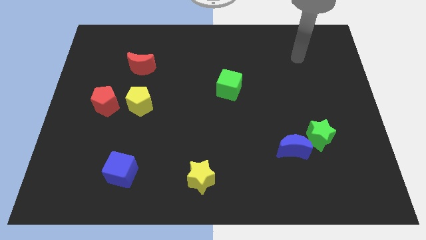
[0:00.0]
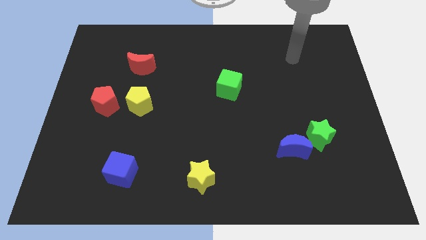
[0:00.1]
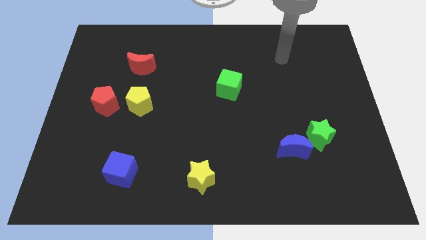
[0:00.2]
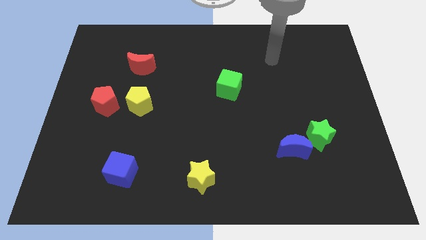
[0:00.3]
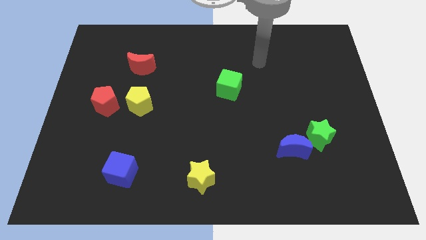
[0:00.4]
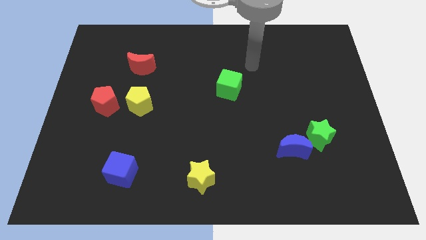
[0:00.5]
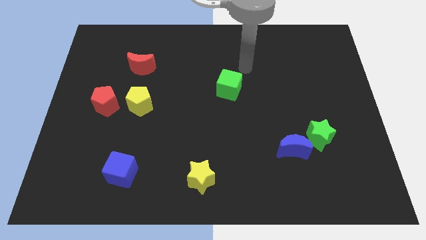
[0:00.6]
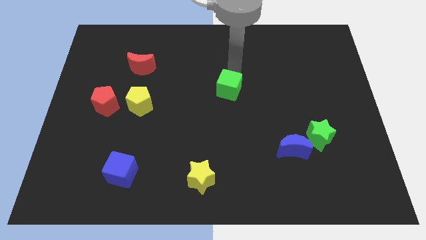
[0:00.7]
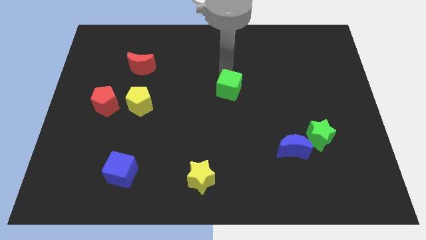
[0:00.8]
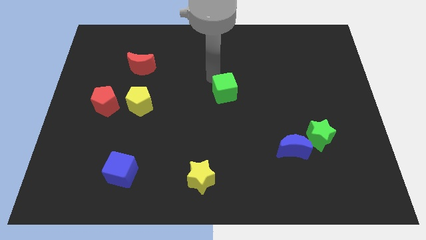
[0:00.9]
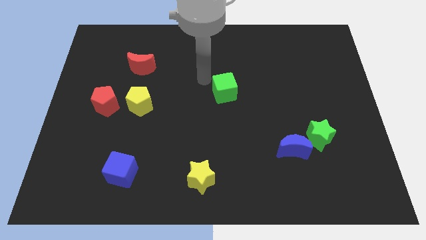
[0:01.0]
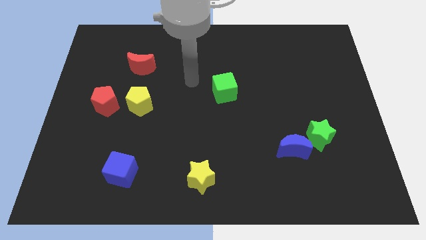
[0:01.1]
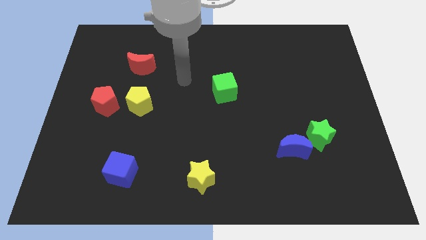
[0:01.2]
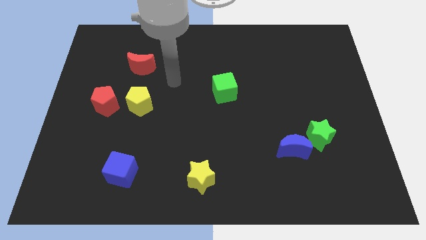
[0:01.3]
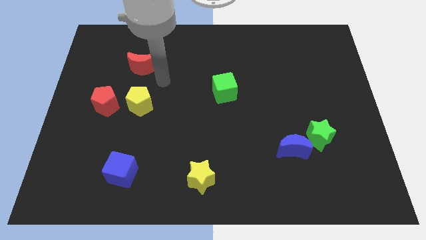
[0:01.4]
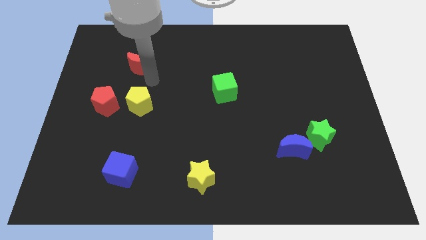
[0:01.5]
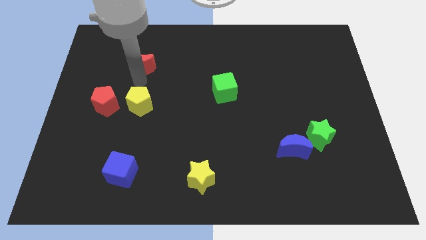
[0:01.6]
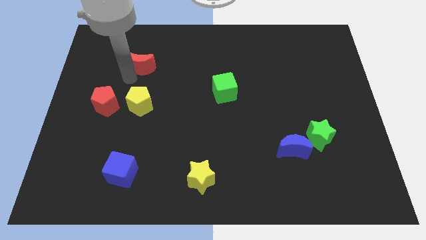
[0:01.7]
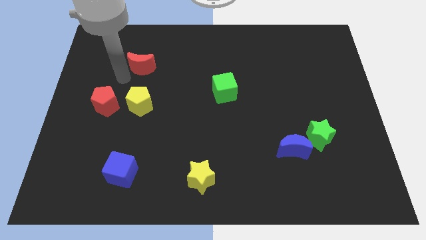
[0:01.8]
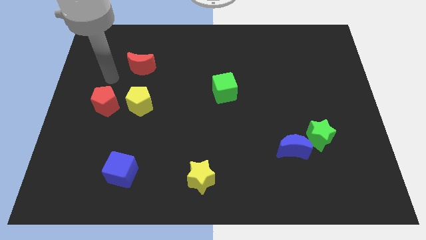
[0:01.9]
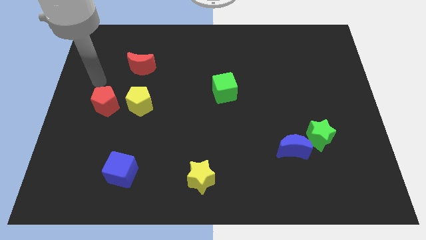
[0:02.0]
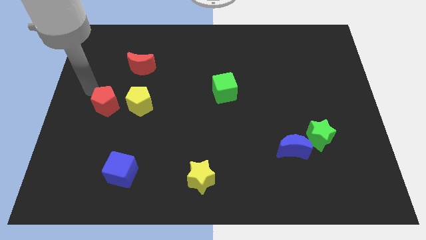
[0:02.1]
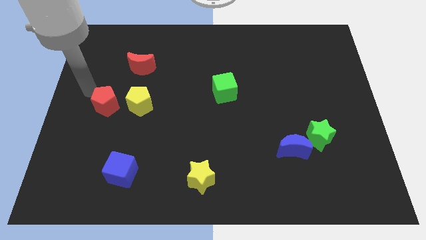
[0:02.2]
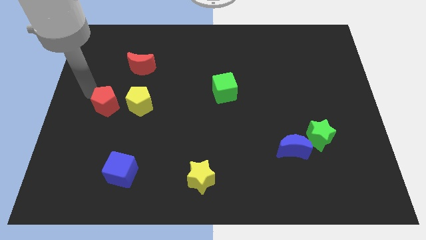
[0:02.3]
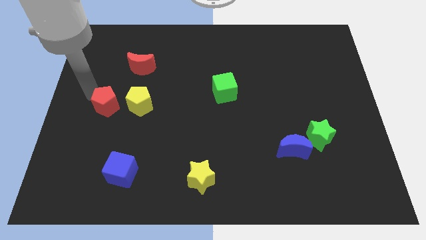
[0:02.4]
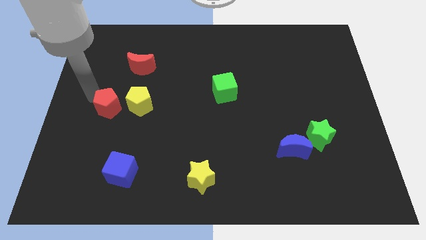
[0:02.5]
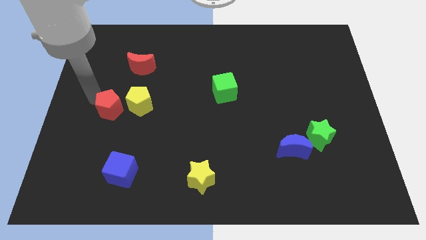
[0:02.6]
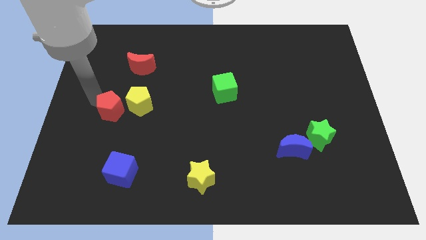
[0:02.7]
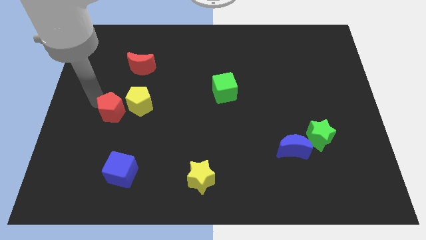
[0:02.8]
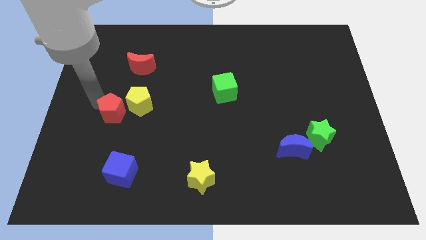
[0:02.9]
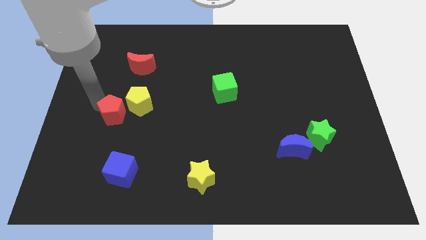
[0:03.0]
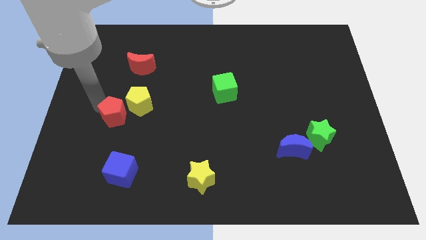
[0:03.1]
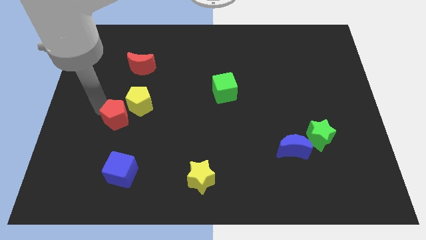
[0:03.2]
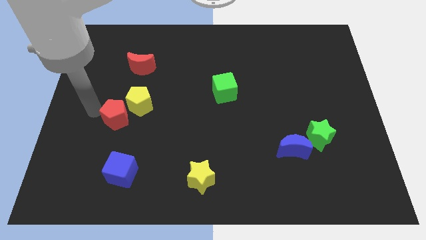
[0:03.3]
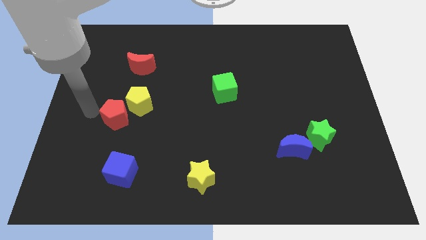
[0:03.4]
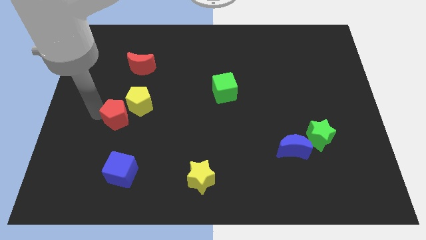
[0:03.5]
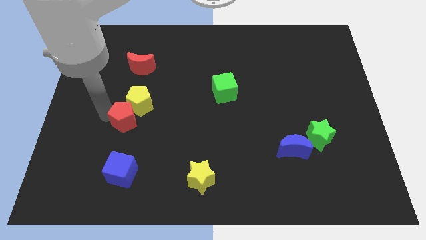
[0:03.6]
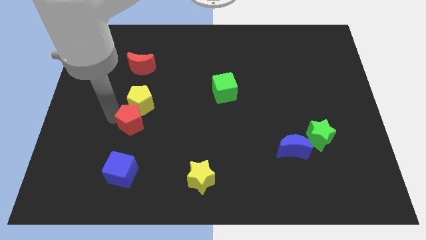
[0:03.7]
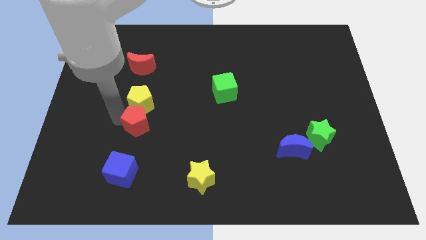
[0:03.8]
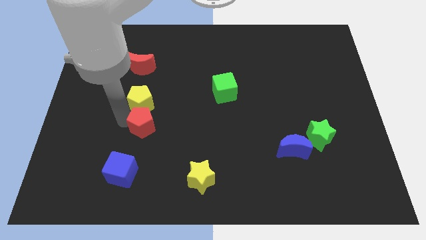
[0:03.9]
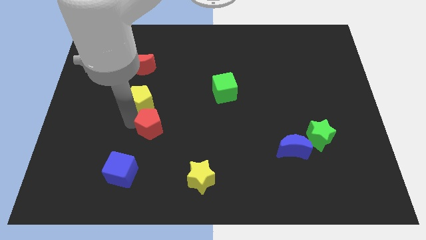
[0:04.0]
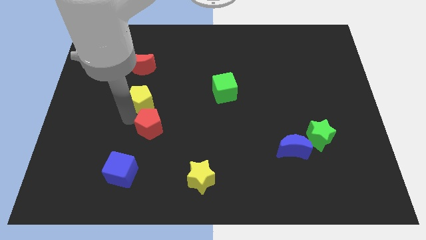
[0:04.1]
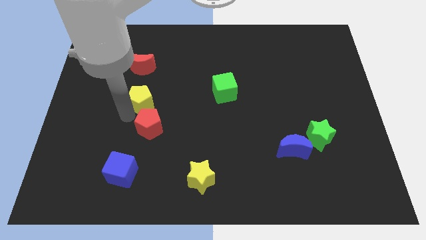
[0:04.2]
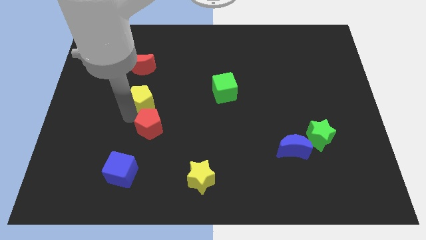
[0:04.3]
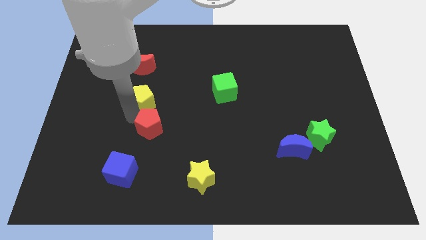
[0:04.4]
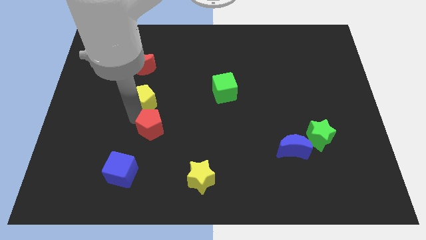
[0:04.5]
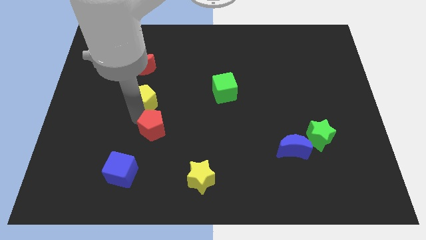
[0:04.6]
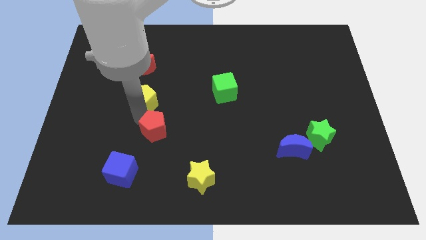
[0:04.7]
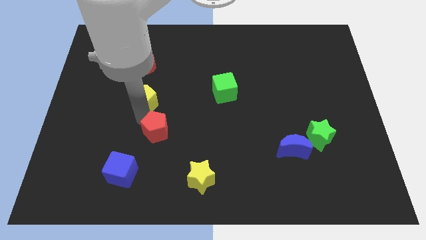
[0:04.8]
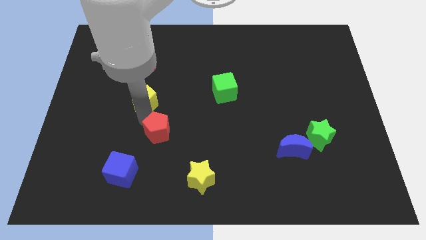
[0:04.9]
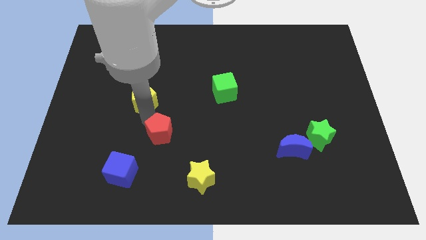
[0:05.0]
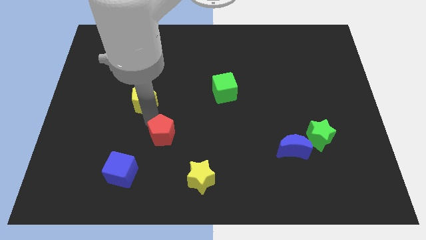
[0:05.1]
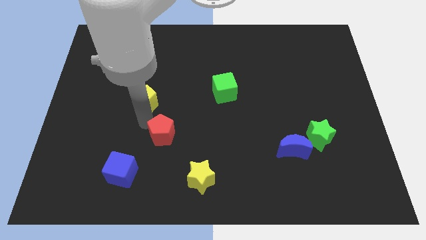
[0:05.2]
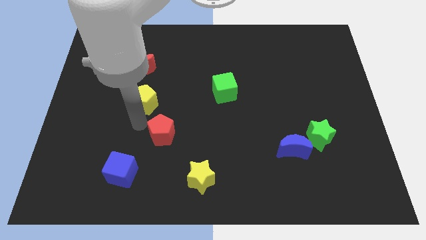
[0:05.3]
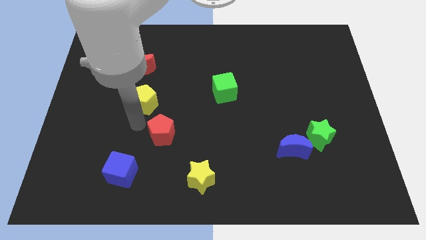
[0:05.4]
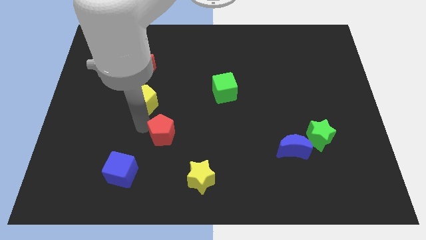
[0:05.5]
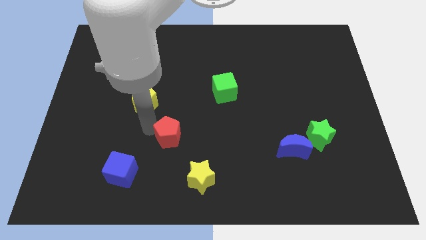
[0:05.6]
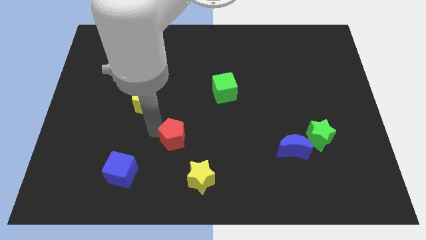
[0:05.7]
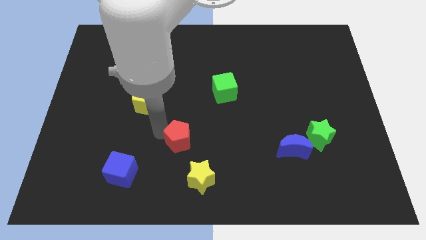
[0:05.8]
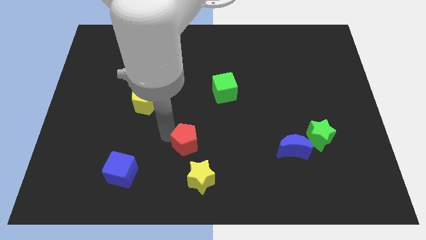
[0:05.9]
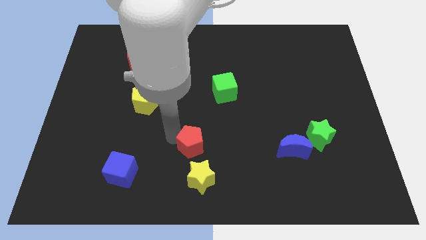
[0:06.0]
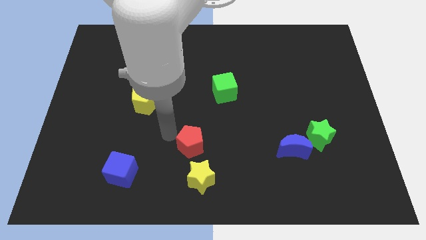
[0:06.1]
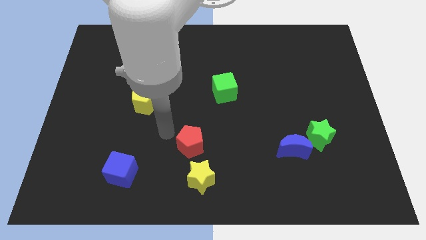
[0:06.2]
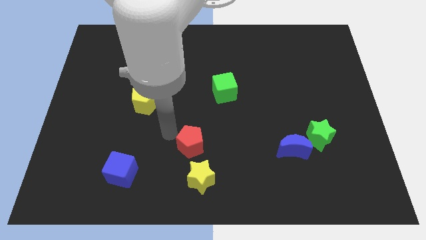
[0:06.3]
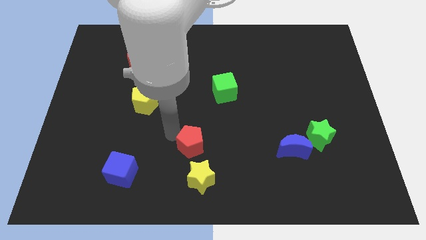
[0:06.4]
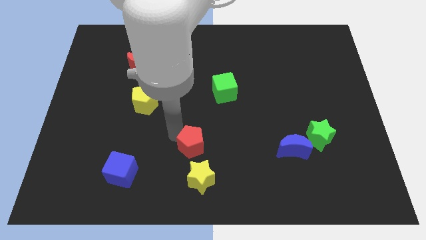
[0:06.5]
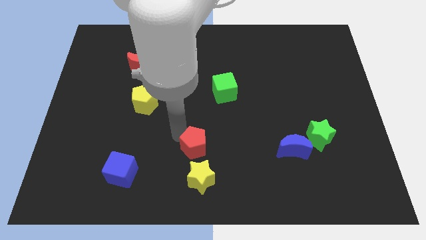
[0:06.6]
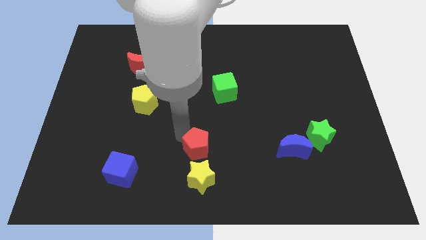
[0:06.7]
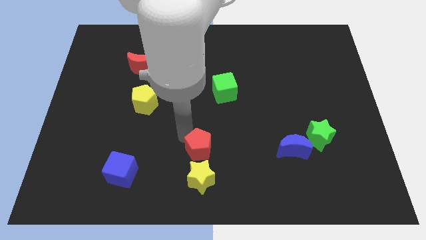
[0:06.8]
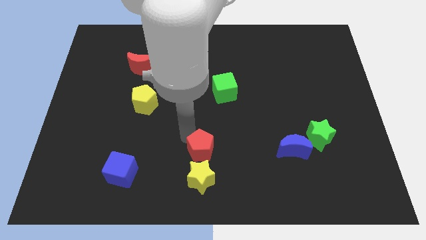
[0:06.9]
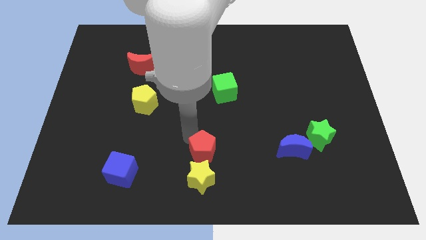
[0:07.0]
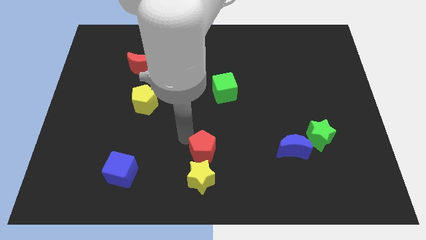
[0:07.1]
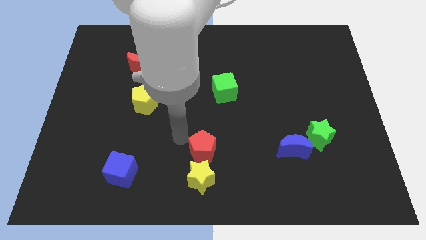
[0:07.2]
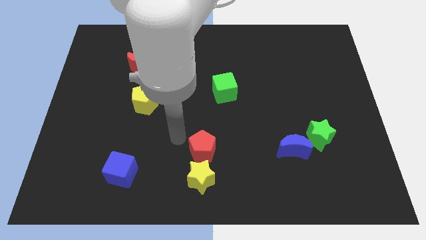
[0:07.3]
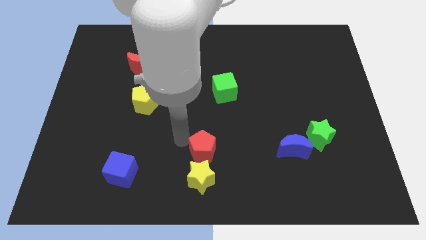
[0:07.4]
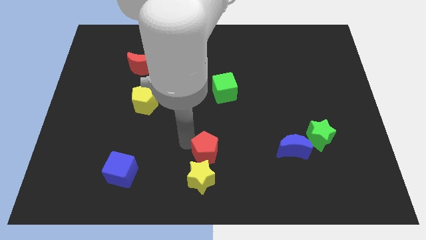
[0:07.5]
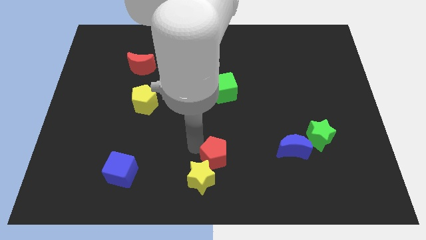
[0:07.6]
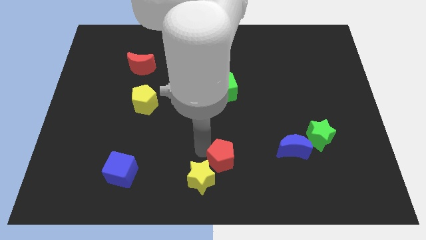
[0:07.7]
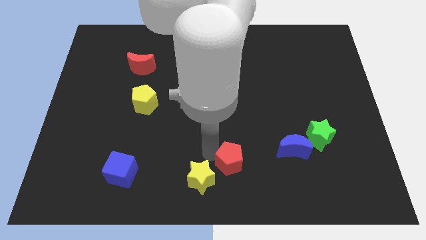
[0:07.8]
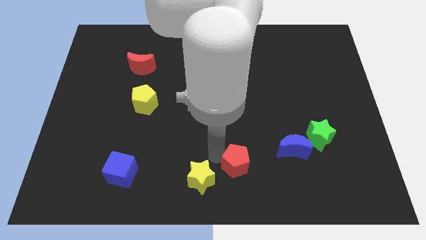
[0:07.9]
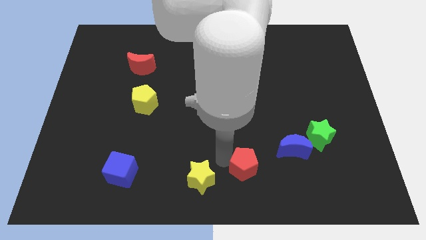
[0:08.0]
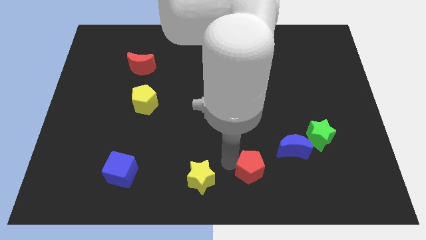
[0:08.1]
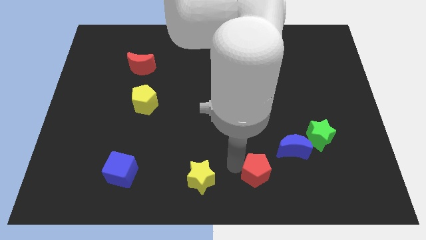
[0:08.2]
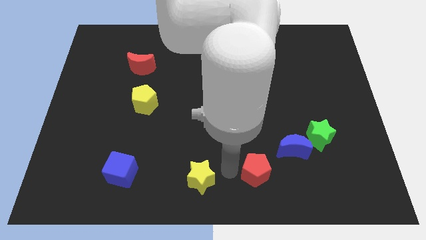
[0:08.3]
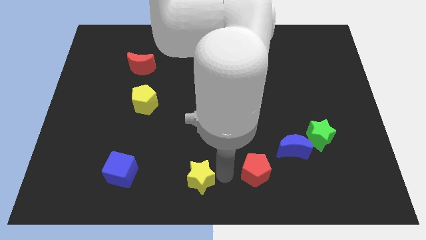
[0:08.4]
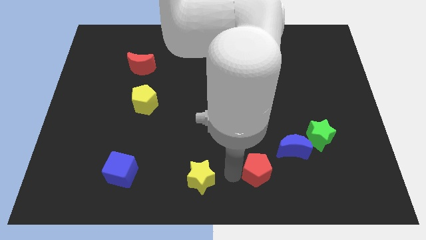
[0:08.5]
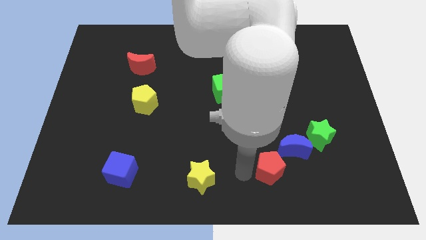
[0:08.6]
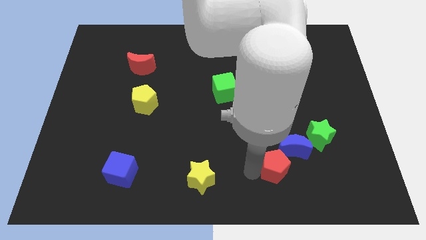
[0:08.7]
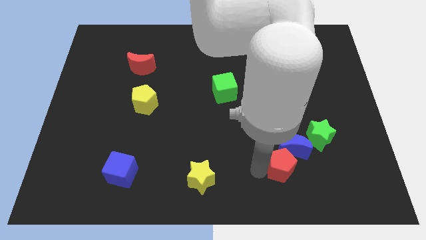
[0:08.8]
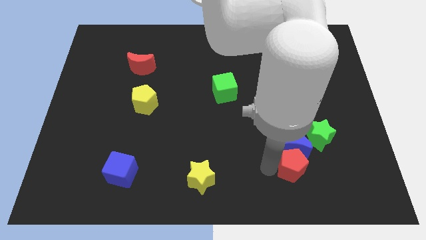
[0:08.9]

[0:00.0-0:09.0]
move the red pentagon to the bottom right of the blue moon
